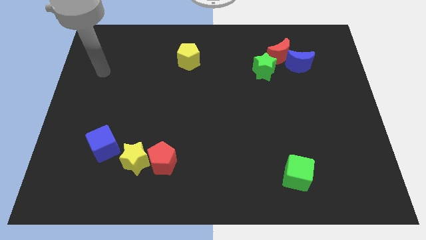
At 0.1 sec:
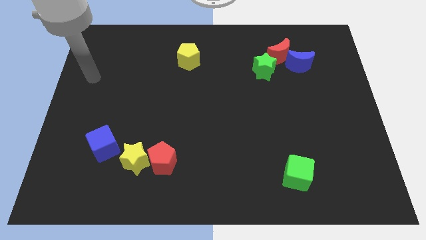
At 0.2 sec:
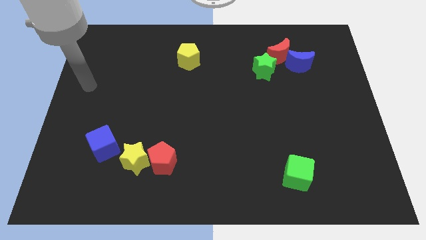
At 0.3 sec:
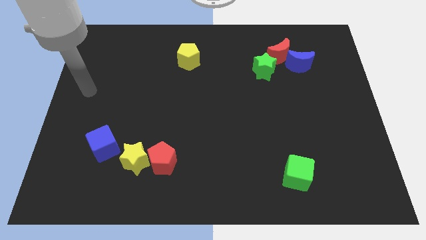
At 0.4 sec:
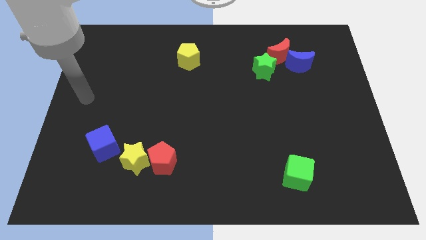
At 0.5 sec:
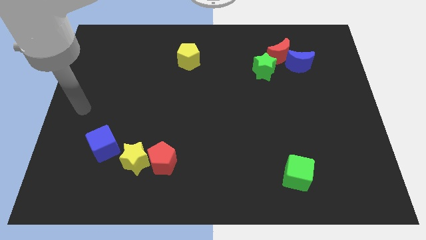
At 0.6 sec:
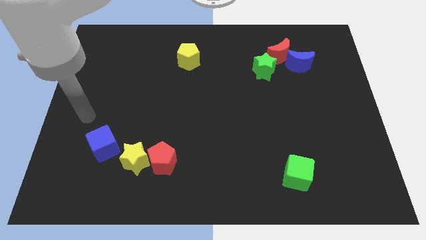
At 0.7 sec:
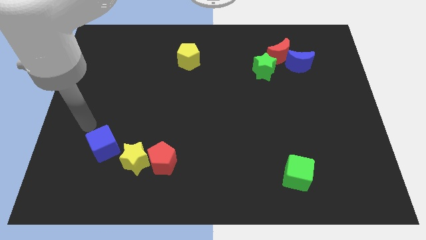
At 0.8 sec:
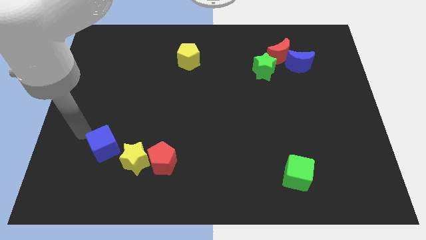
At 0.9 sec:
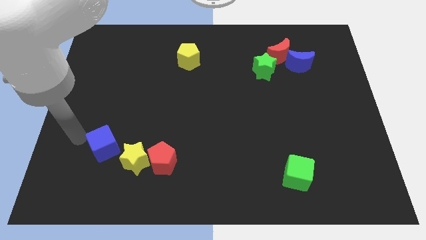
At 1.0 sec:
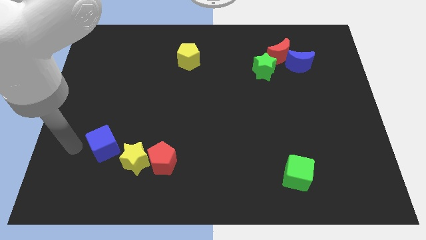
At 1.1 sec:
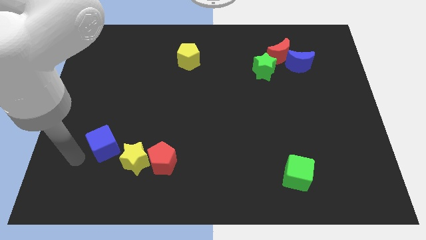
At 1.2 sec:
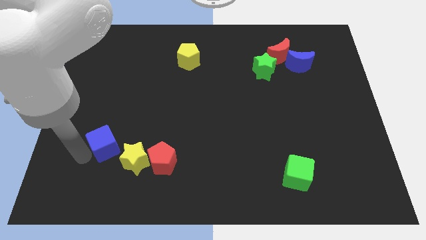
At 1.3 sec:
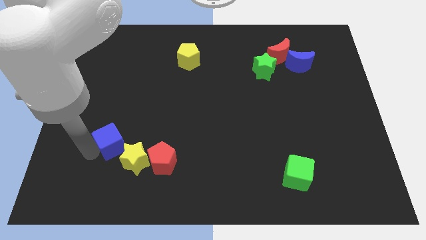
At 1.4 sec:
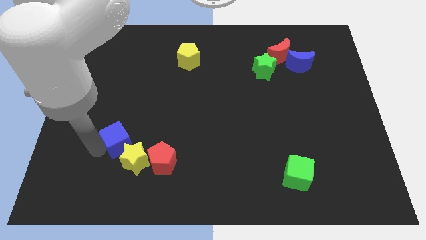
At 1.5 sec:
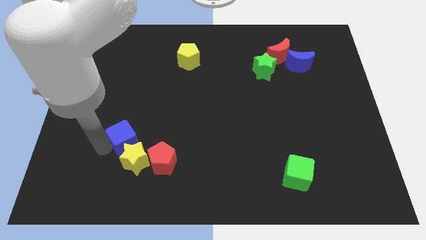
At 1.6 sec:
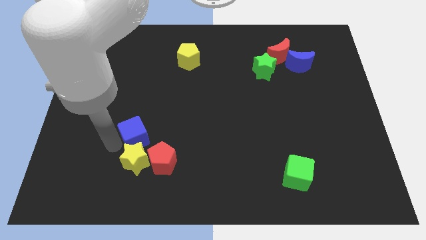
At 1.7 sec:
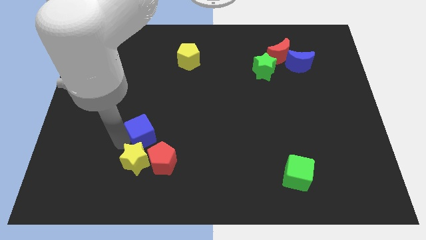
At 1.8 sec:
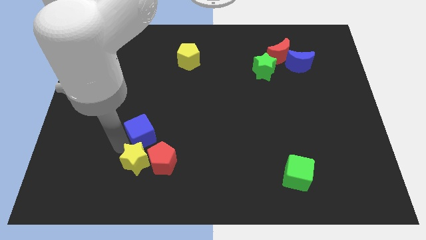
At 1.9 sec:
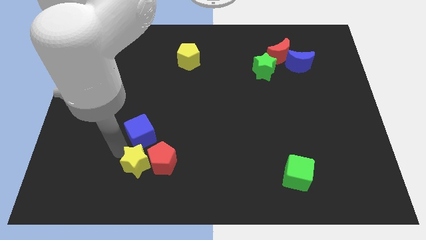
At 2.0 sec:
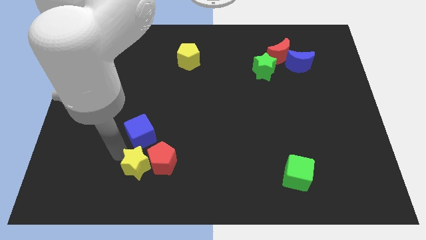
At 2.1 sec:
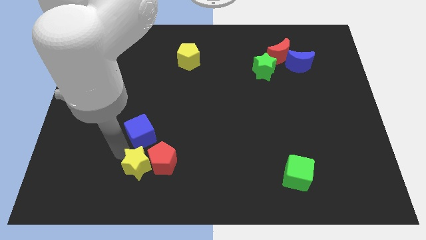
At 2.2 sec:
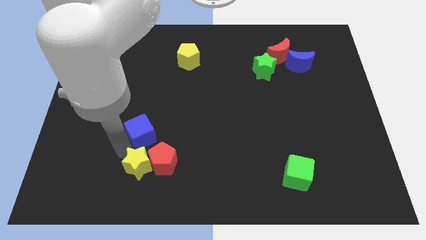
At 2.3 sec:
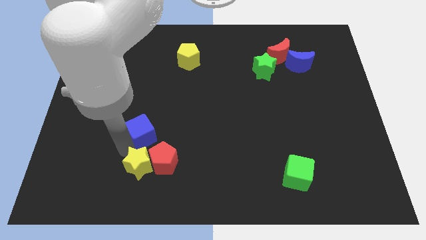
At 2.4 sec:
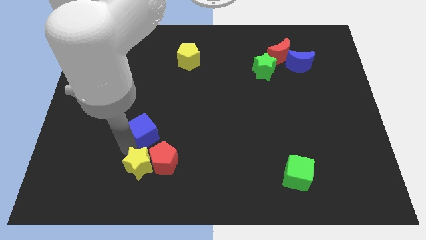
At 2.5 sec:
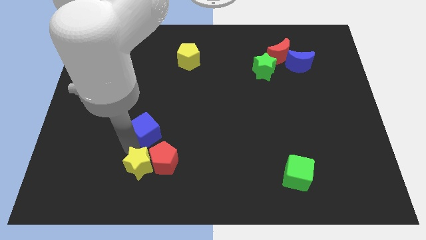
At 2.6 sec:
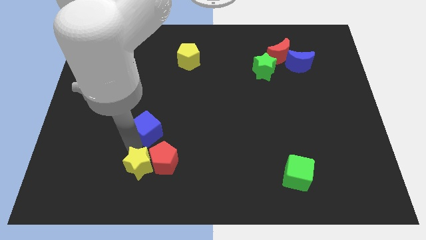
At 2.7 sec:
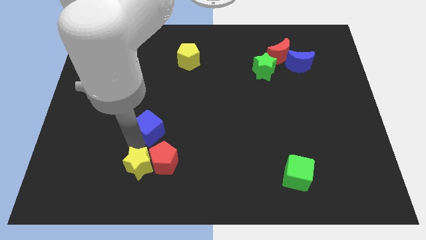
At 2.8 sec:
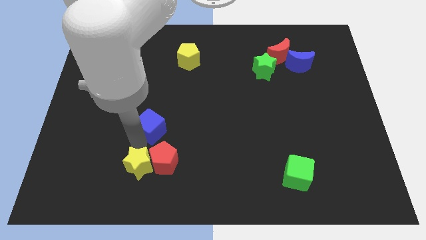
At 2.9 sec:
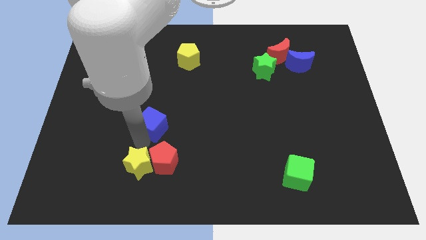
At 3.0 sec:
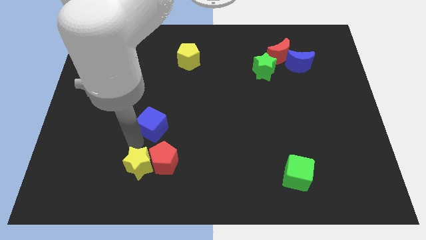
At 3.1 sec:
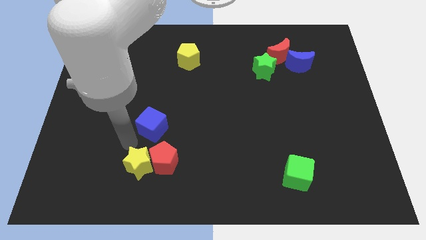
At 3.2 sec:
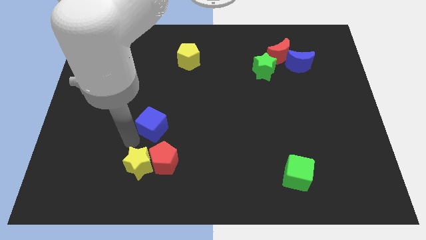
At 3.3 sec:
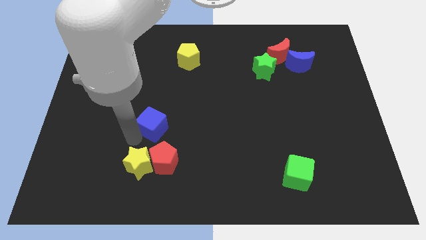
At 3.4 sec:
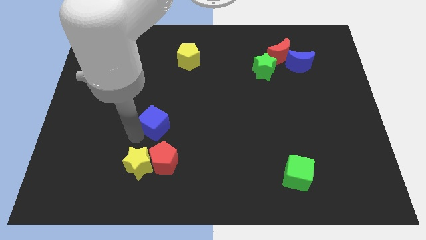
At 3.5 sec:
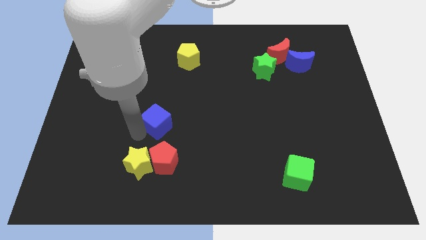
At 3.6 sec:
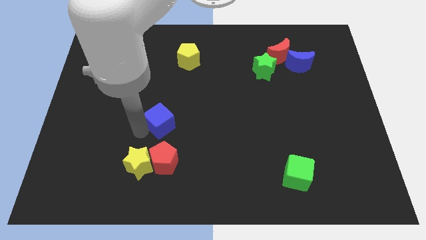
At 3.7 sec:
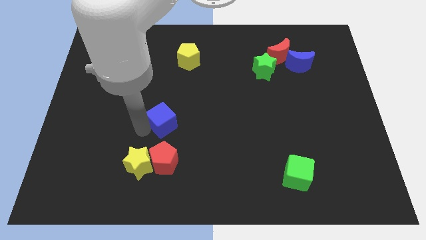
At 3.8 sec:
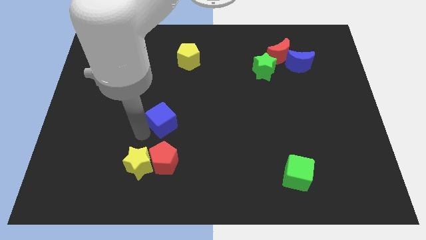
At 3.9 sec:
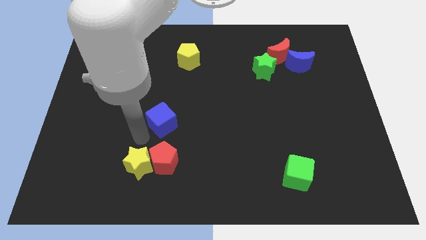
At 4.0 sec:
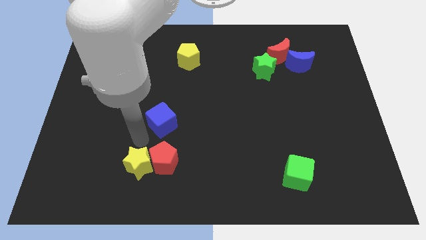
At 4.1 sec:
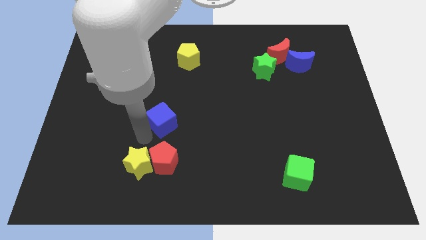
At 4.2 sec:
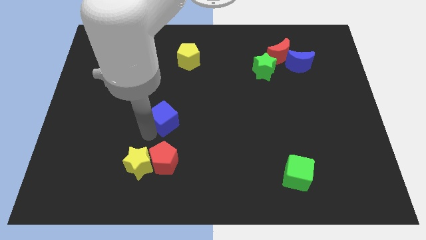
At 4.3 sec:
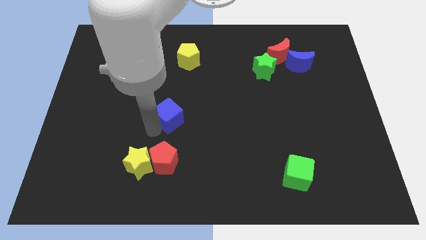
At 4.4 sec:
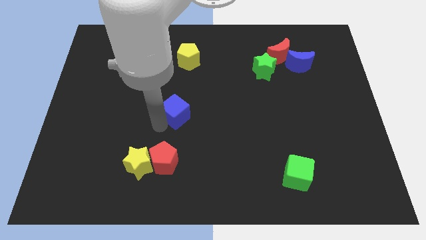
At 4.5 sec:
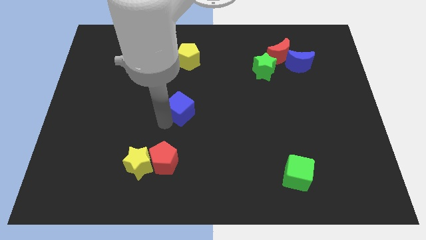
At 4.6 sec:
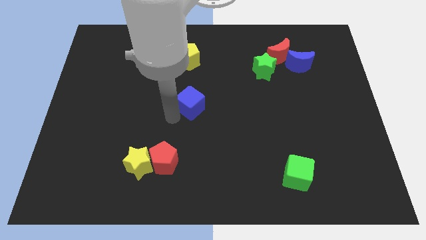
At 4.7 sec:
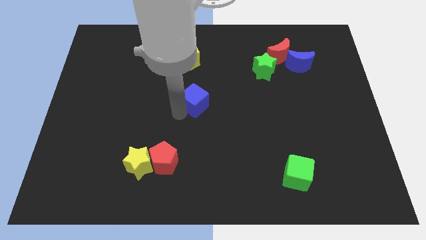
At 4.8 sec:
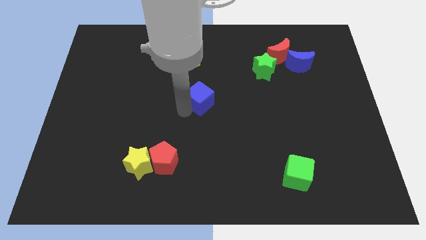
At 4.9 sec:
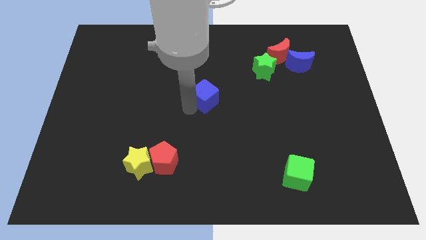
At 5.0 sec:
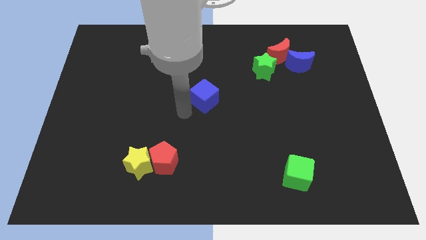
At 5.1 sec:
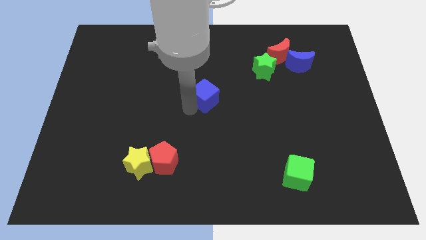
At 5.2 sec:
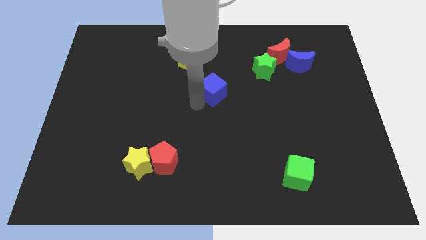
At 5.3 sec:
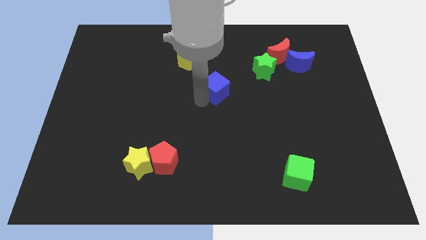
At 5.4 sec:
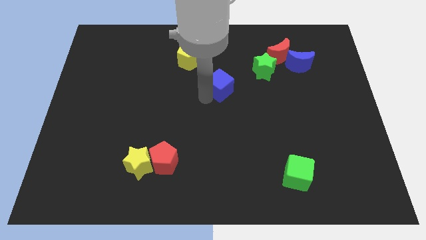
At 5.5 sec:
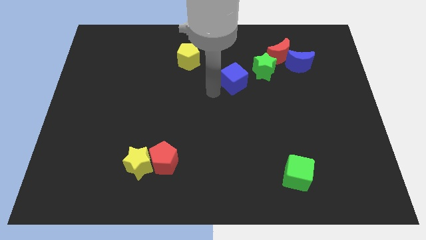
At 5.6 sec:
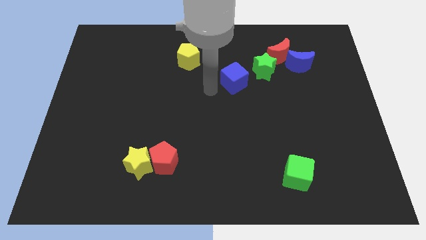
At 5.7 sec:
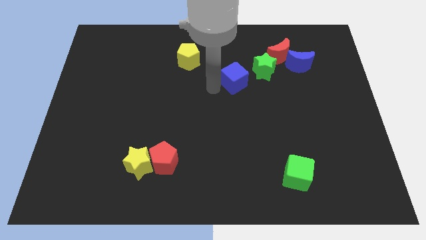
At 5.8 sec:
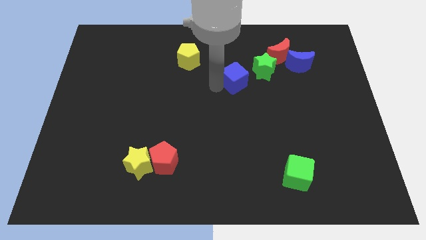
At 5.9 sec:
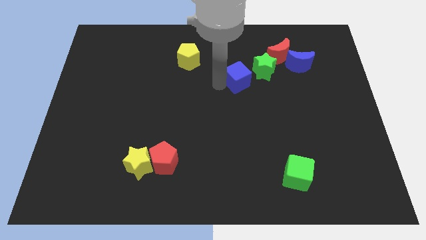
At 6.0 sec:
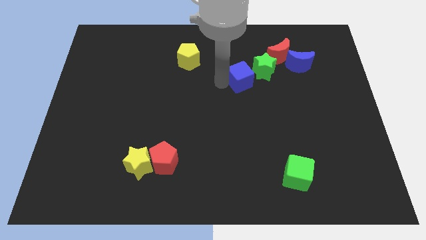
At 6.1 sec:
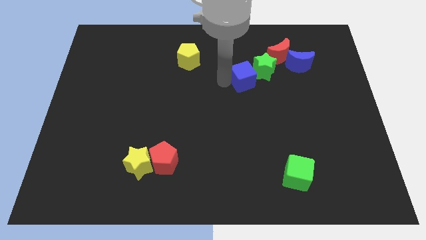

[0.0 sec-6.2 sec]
put the blue cube next to the green star

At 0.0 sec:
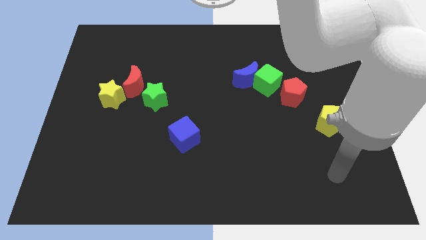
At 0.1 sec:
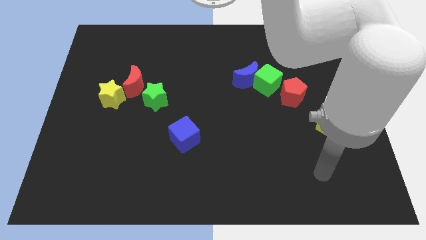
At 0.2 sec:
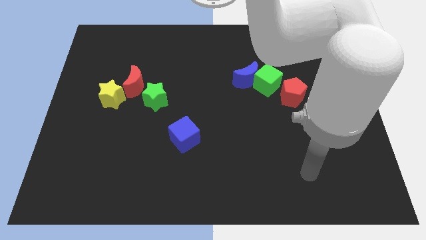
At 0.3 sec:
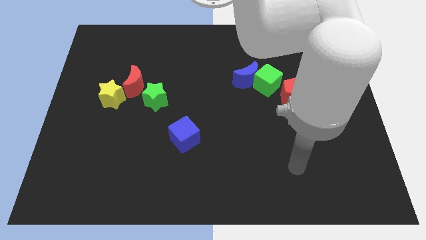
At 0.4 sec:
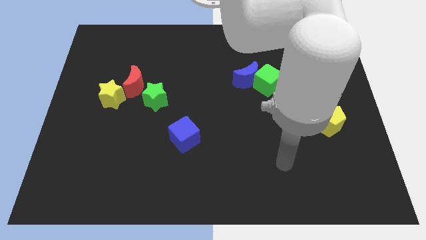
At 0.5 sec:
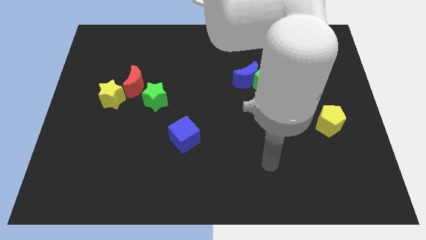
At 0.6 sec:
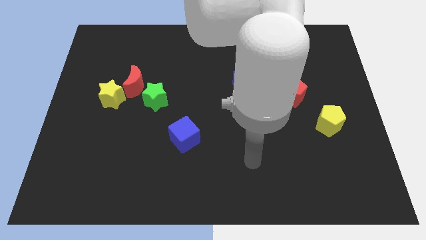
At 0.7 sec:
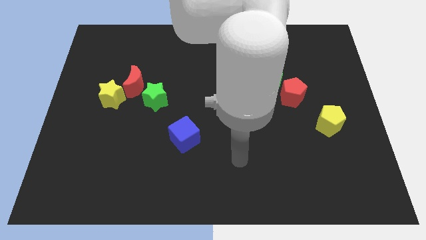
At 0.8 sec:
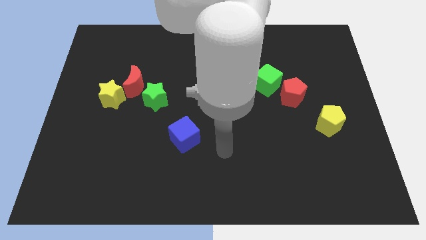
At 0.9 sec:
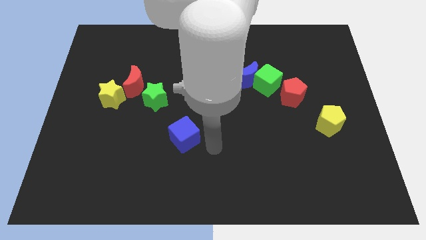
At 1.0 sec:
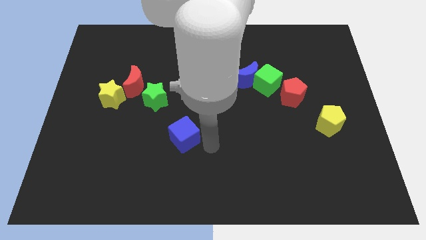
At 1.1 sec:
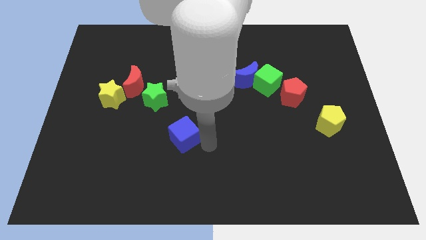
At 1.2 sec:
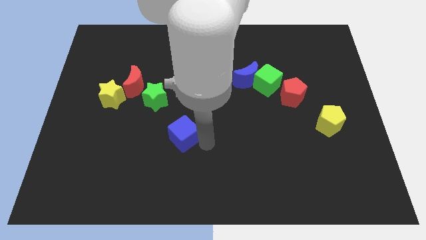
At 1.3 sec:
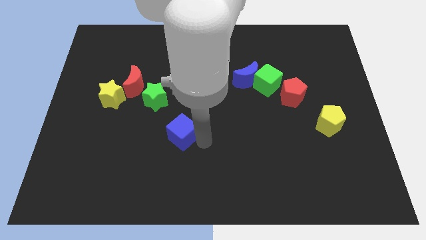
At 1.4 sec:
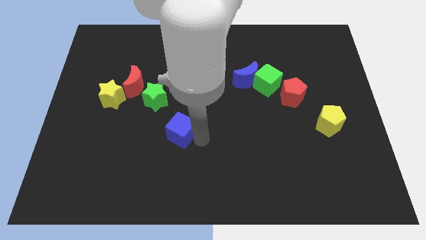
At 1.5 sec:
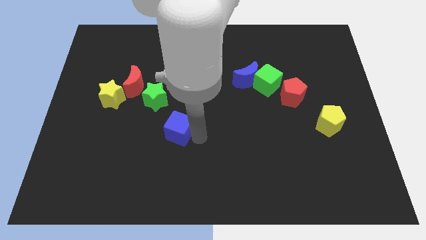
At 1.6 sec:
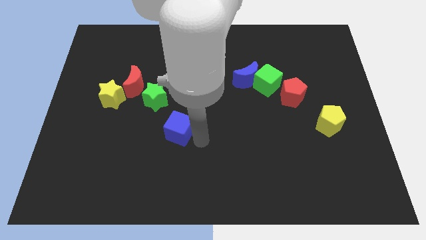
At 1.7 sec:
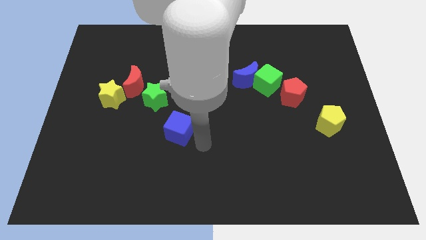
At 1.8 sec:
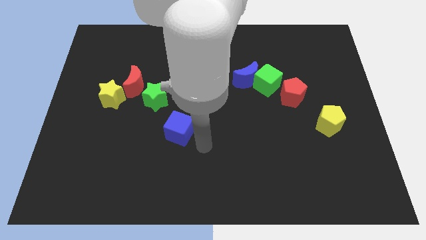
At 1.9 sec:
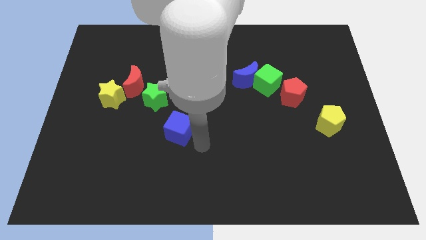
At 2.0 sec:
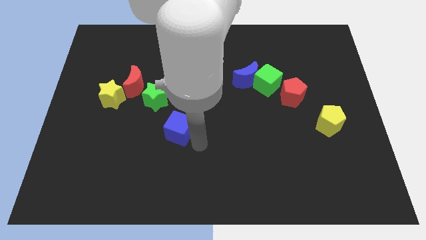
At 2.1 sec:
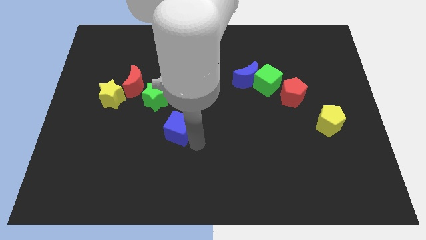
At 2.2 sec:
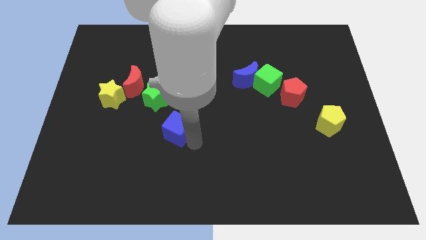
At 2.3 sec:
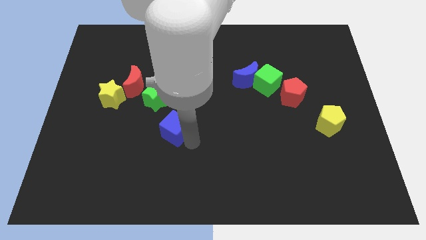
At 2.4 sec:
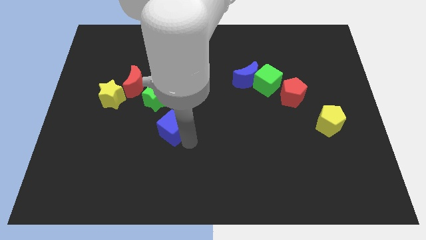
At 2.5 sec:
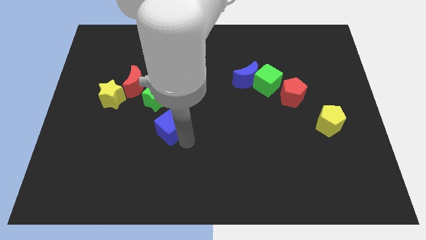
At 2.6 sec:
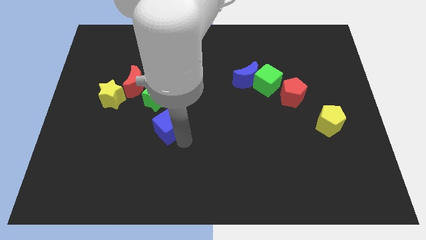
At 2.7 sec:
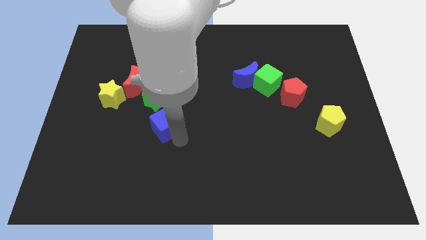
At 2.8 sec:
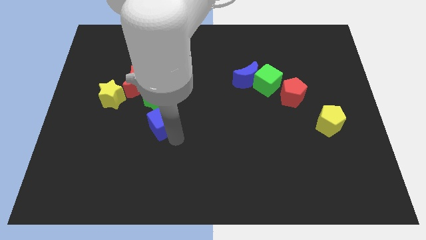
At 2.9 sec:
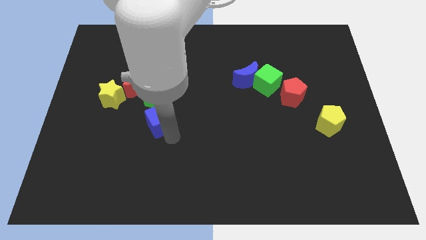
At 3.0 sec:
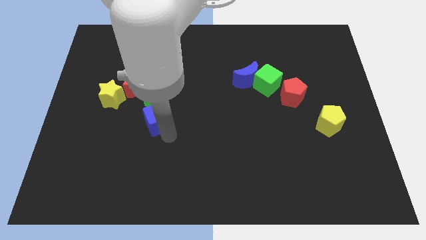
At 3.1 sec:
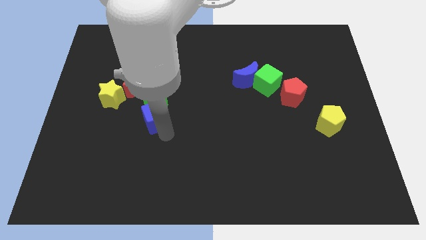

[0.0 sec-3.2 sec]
slide the blue cube close to the green star
